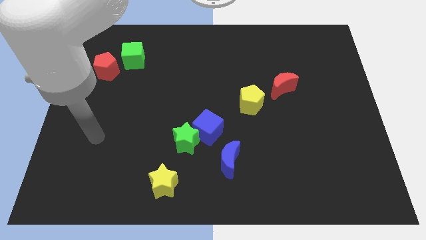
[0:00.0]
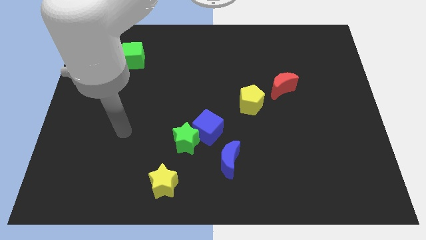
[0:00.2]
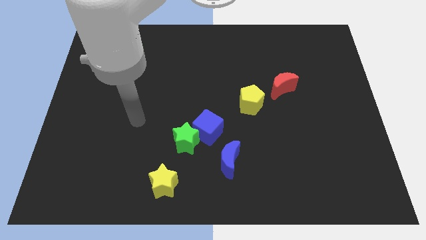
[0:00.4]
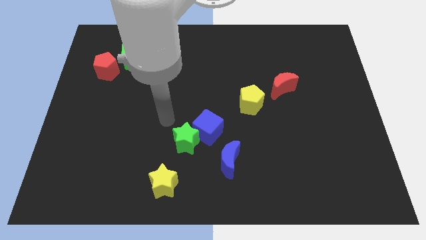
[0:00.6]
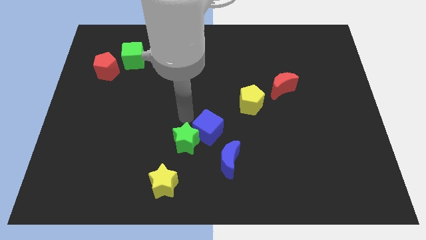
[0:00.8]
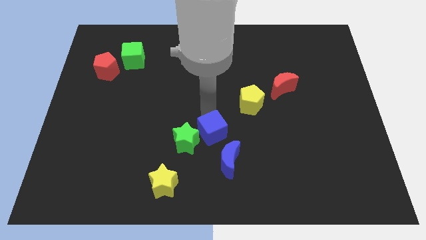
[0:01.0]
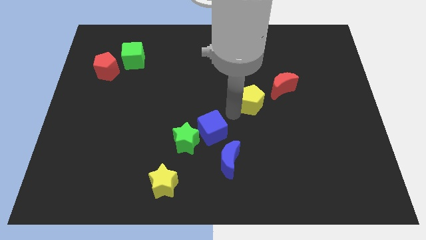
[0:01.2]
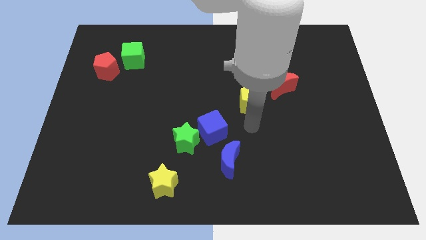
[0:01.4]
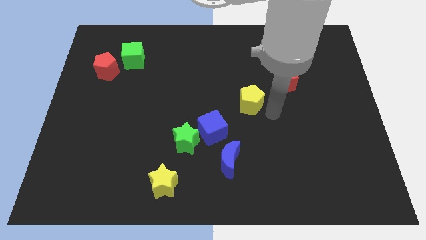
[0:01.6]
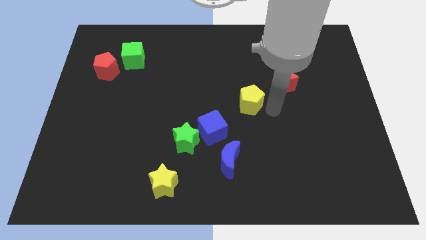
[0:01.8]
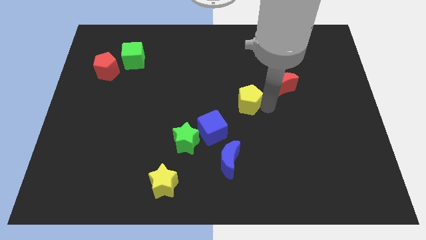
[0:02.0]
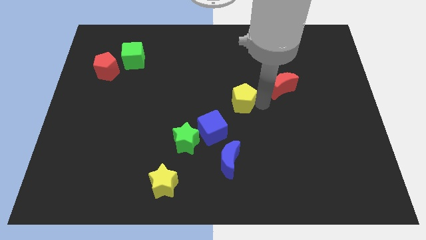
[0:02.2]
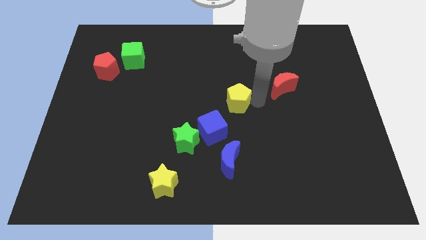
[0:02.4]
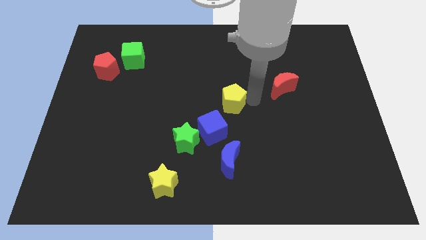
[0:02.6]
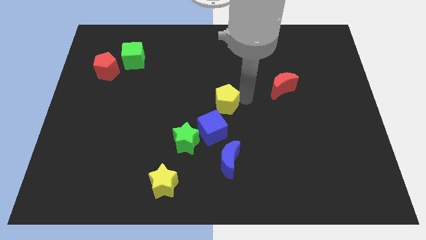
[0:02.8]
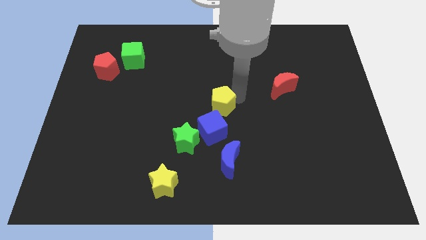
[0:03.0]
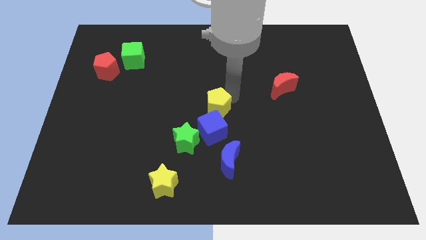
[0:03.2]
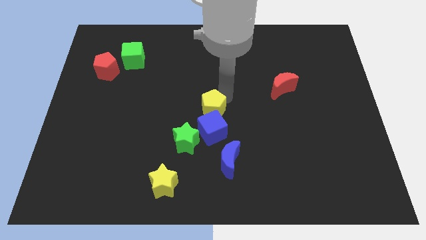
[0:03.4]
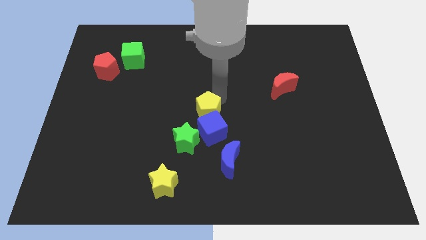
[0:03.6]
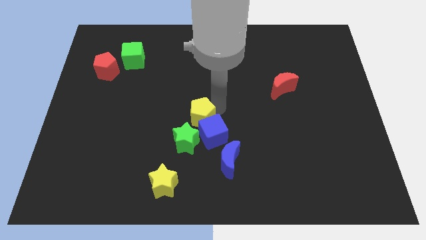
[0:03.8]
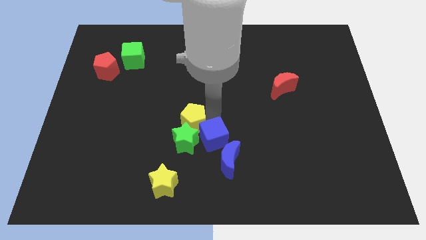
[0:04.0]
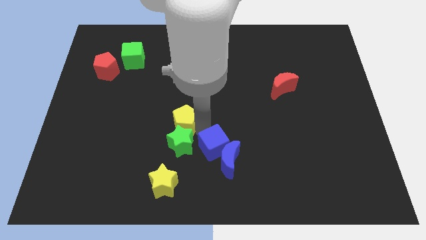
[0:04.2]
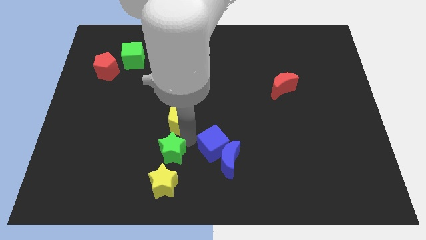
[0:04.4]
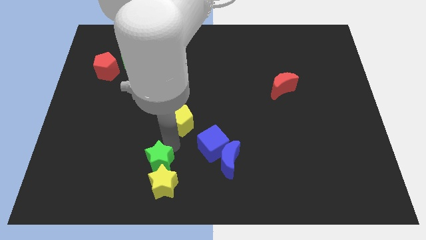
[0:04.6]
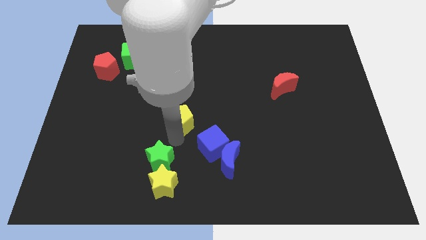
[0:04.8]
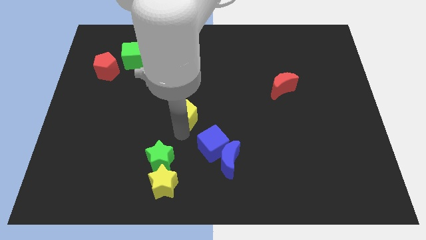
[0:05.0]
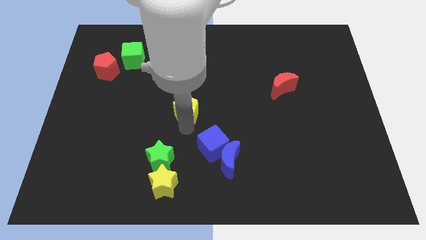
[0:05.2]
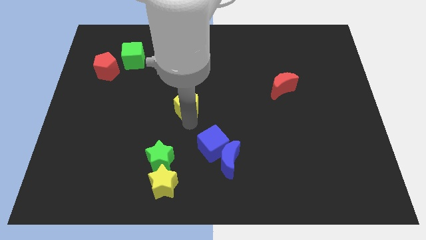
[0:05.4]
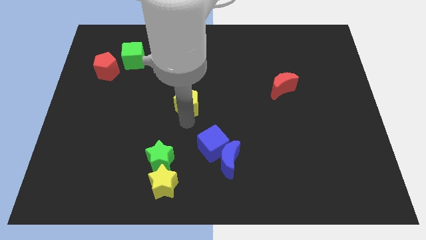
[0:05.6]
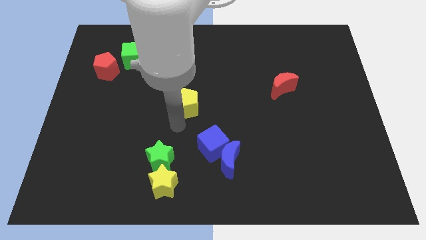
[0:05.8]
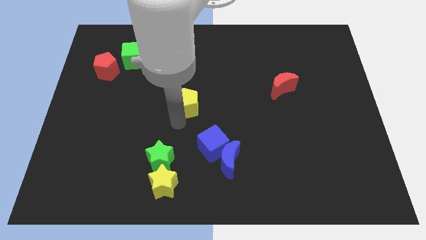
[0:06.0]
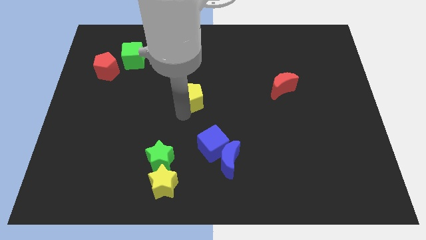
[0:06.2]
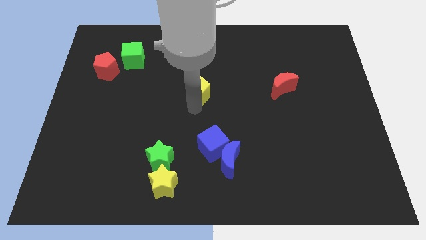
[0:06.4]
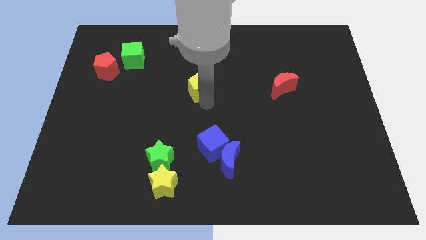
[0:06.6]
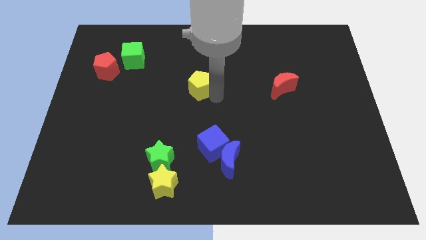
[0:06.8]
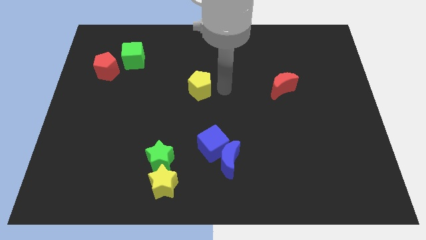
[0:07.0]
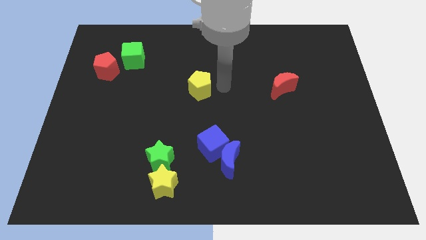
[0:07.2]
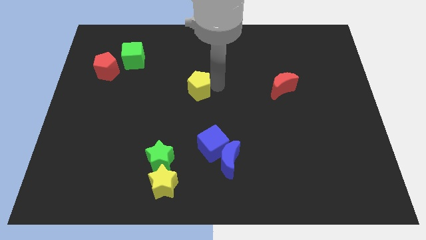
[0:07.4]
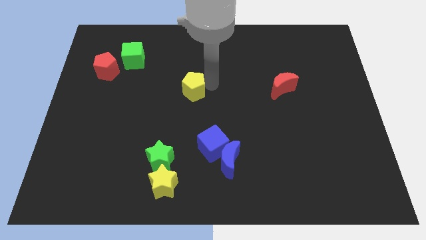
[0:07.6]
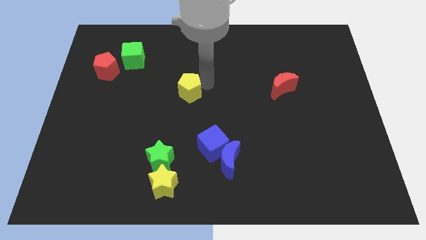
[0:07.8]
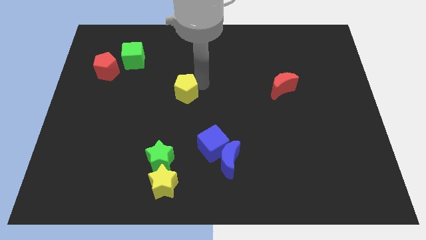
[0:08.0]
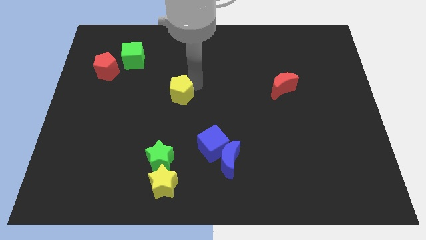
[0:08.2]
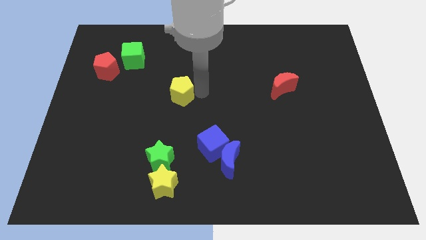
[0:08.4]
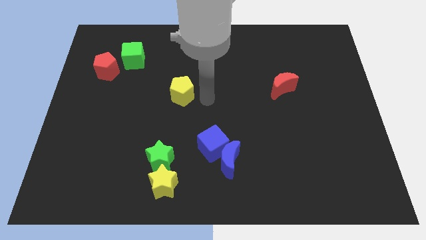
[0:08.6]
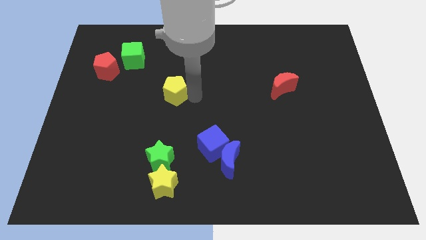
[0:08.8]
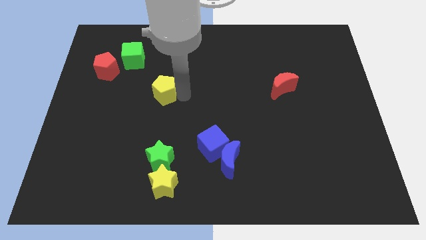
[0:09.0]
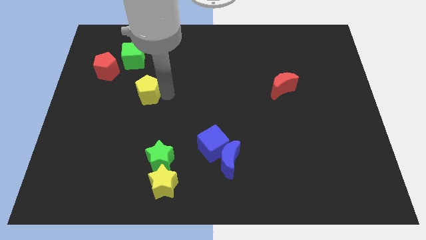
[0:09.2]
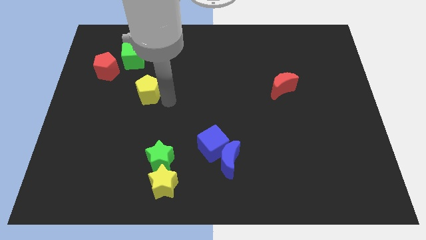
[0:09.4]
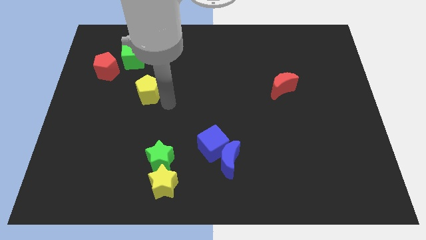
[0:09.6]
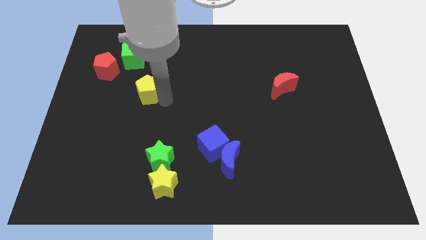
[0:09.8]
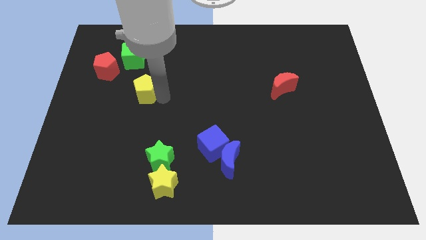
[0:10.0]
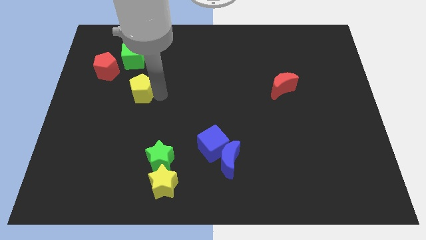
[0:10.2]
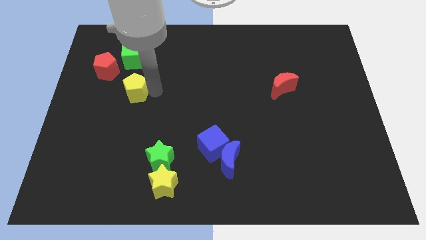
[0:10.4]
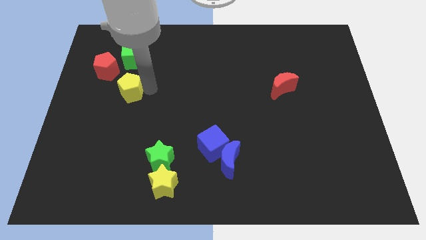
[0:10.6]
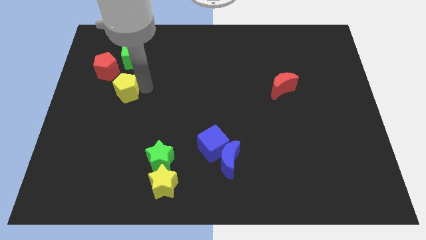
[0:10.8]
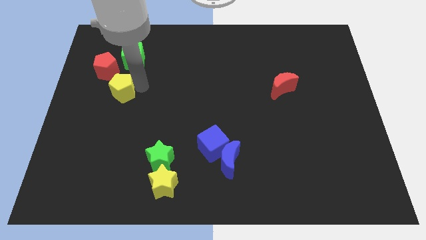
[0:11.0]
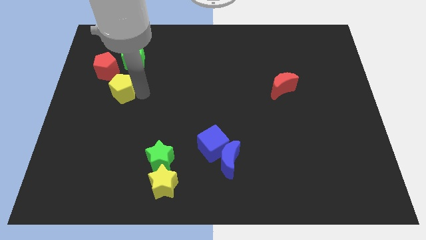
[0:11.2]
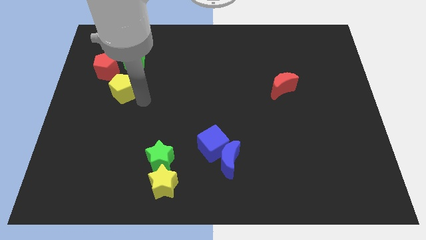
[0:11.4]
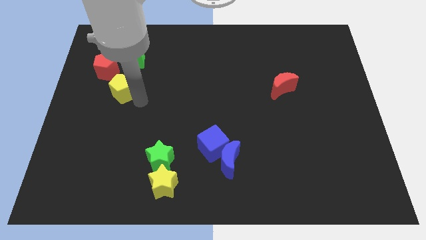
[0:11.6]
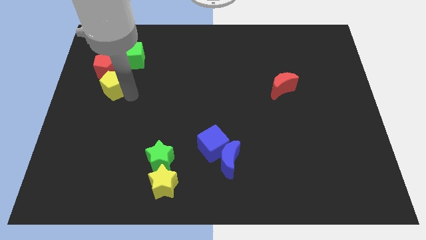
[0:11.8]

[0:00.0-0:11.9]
put the yellow pentagon to the bottom left of the green cube
